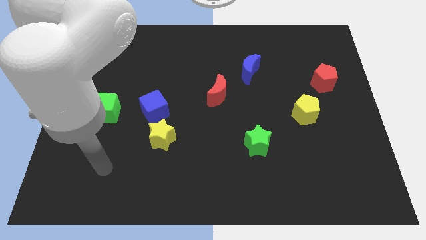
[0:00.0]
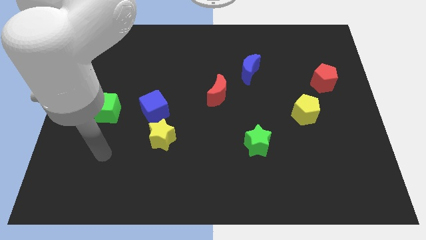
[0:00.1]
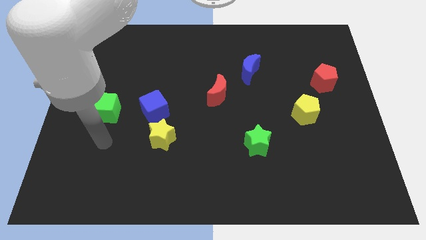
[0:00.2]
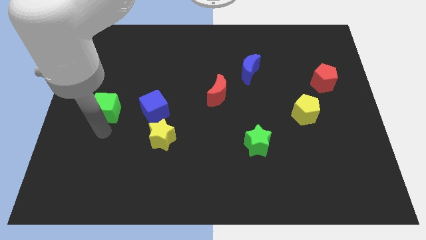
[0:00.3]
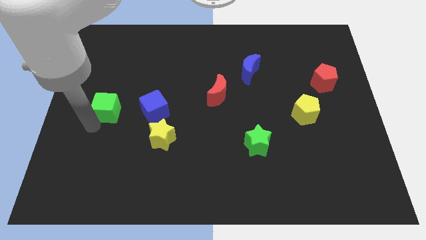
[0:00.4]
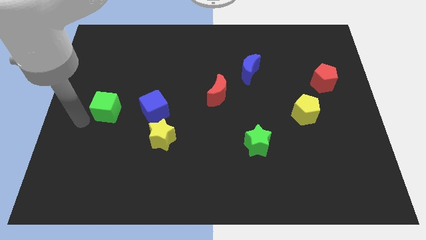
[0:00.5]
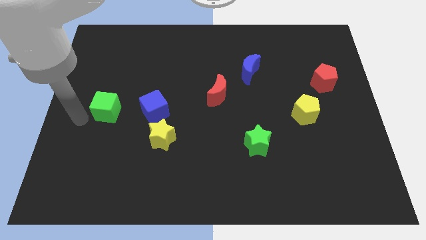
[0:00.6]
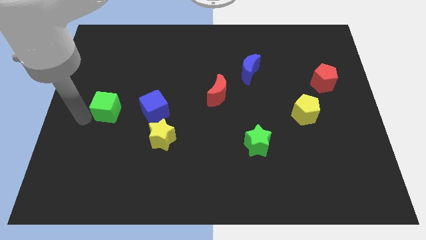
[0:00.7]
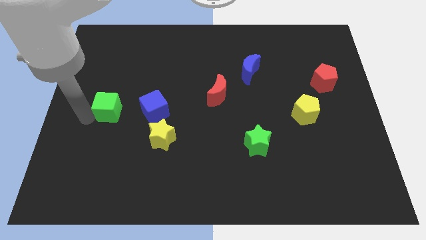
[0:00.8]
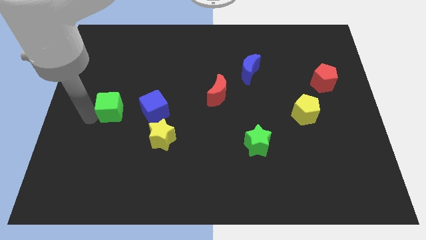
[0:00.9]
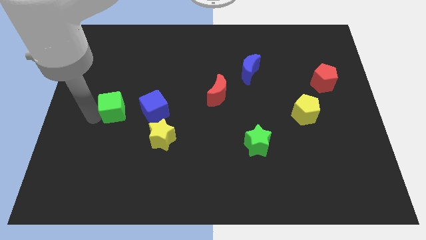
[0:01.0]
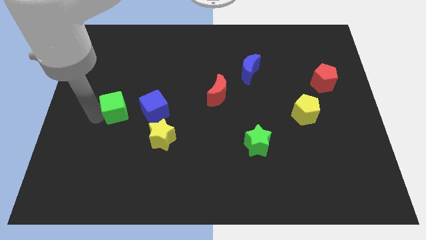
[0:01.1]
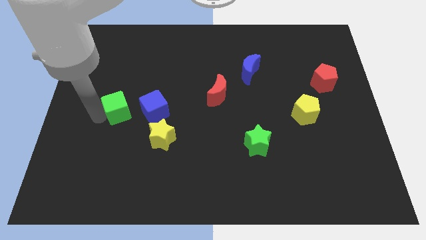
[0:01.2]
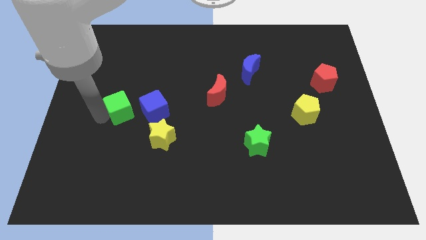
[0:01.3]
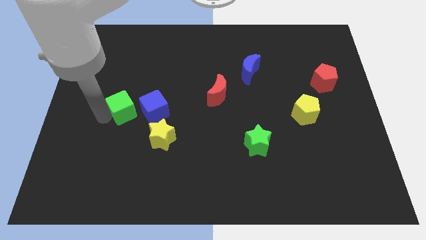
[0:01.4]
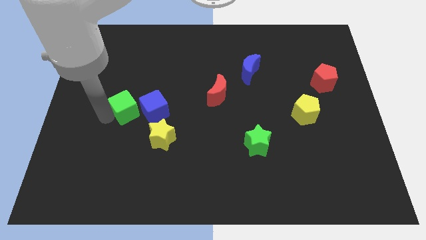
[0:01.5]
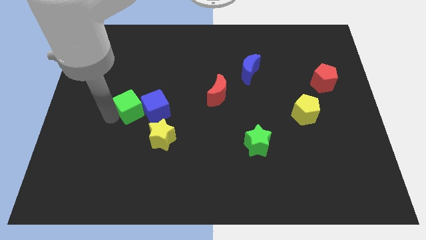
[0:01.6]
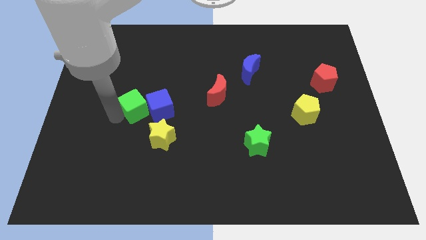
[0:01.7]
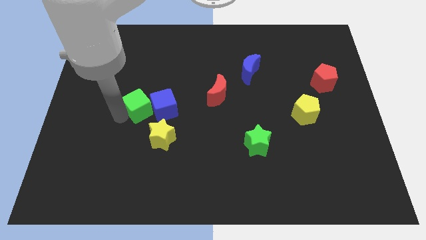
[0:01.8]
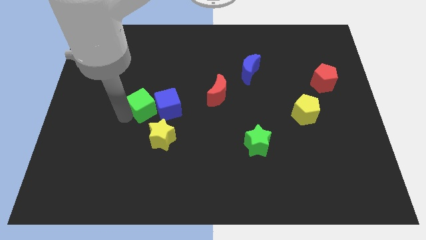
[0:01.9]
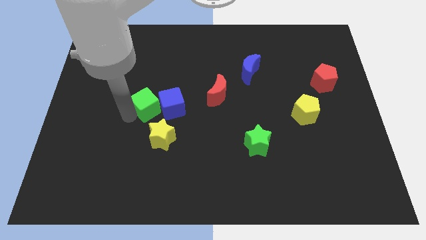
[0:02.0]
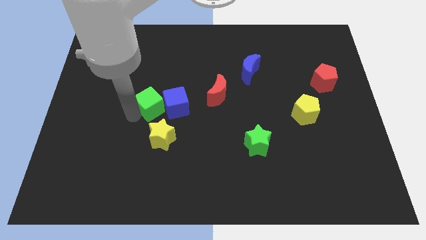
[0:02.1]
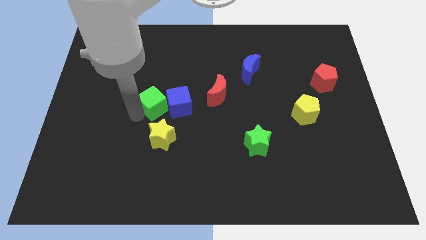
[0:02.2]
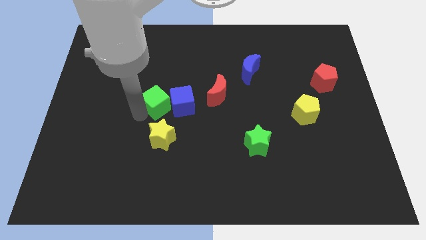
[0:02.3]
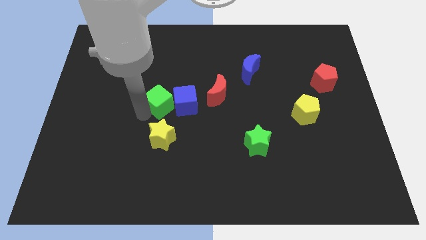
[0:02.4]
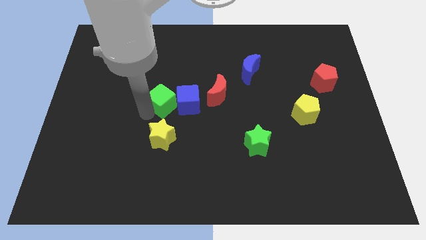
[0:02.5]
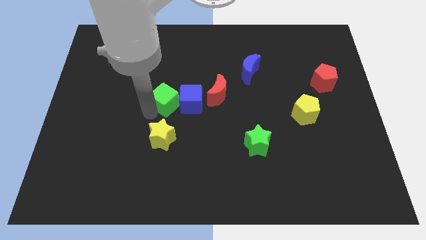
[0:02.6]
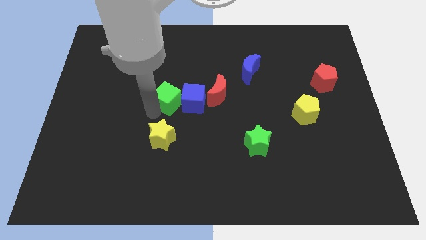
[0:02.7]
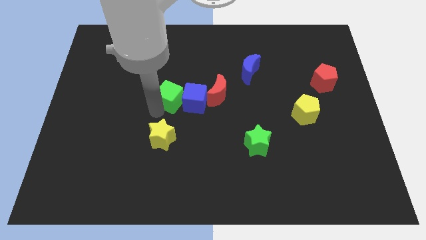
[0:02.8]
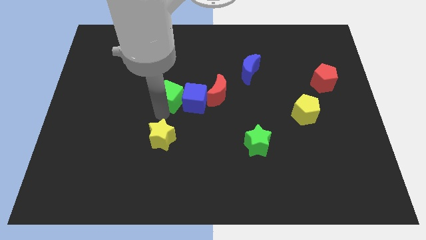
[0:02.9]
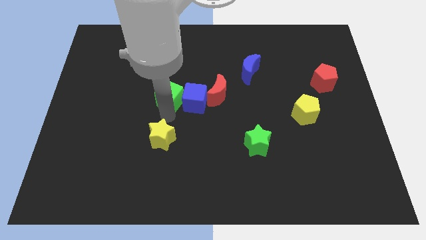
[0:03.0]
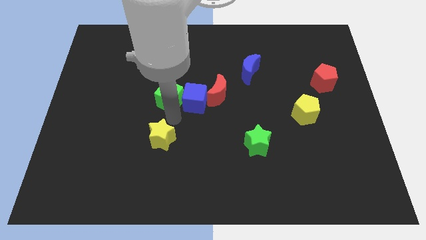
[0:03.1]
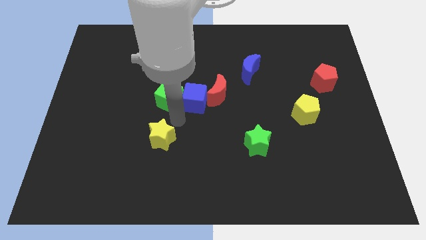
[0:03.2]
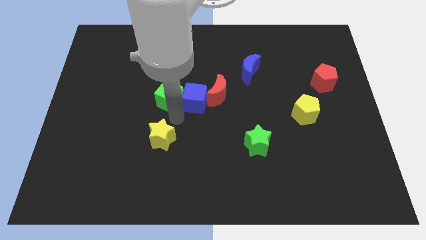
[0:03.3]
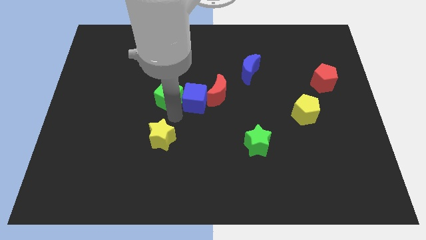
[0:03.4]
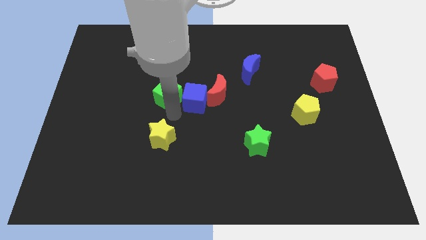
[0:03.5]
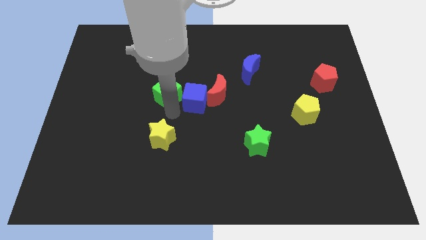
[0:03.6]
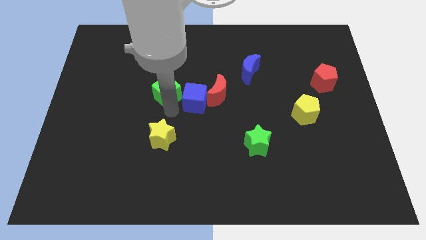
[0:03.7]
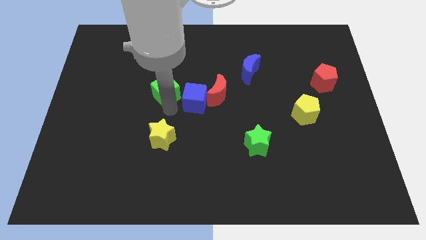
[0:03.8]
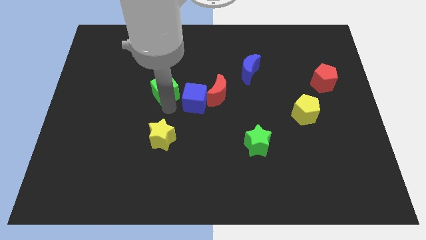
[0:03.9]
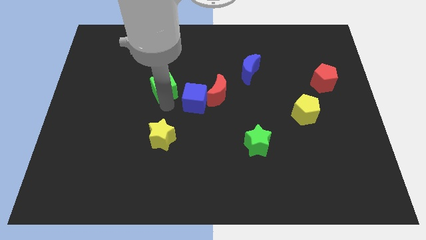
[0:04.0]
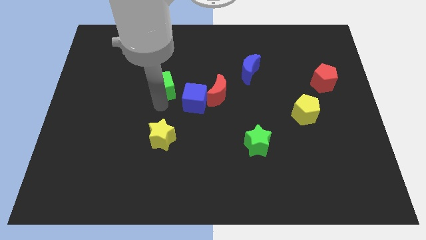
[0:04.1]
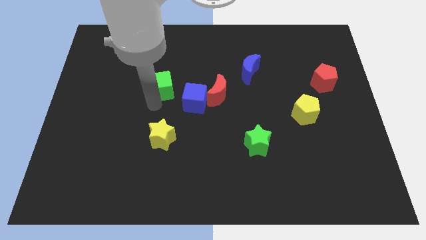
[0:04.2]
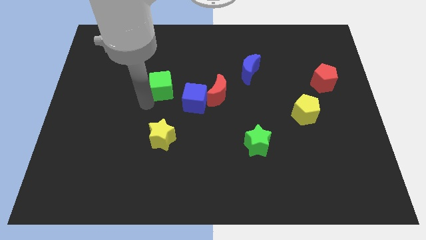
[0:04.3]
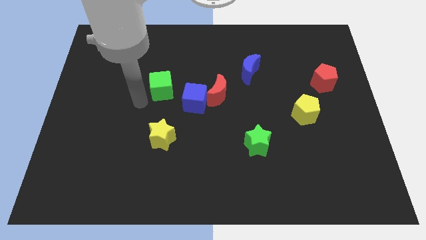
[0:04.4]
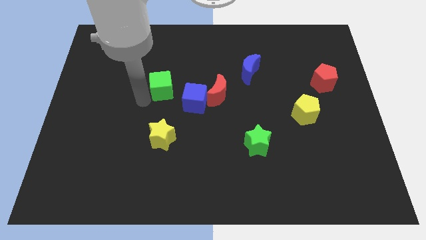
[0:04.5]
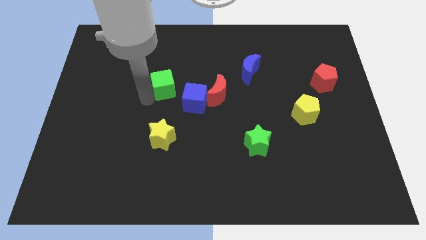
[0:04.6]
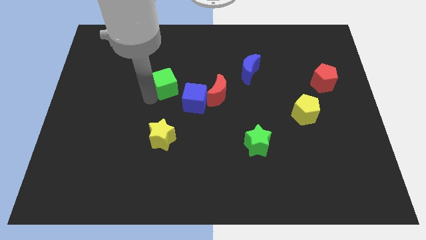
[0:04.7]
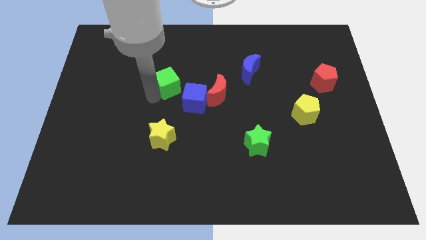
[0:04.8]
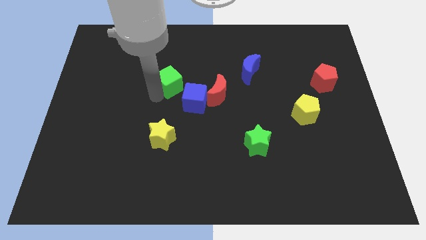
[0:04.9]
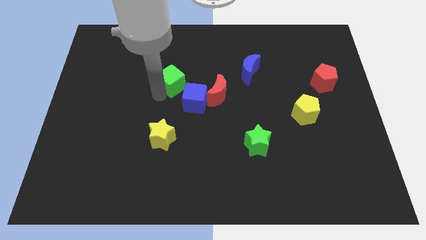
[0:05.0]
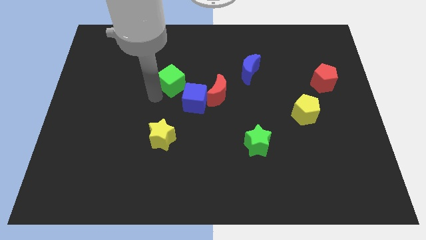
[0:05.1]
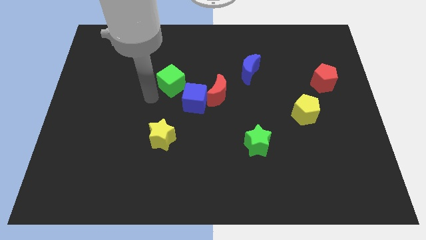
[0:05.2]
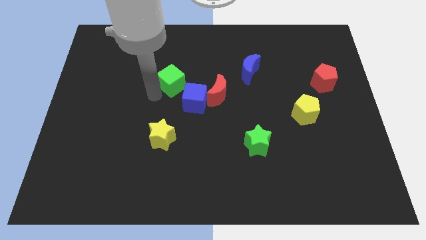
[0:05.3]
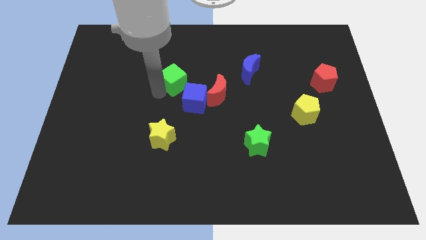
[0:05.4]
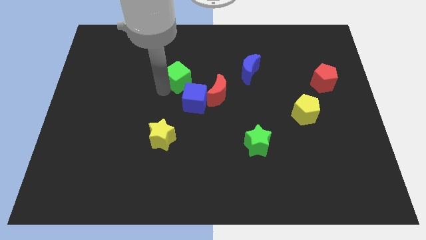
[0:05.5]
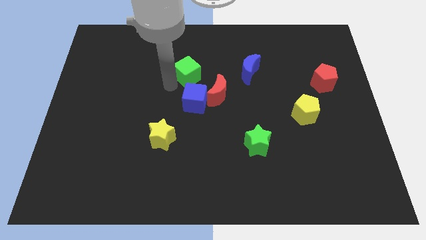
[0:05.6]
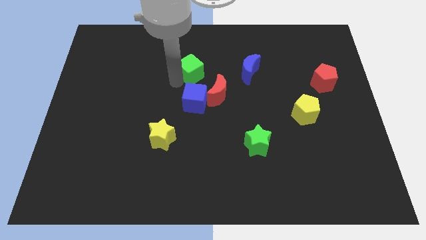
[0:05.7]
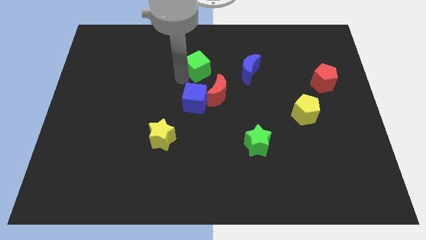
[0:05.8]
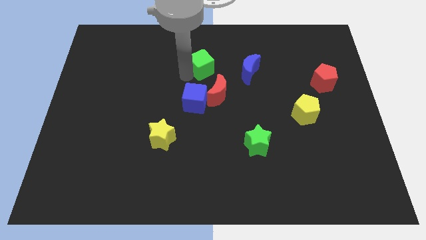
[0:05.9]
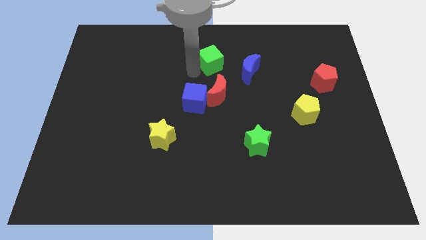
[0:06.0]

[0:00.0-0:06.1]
put the green cube to the top left of the blue moon
